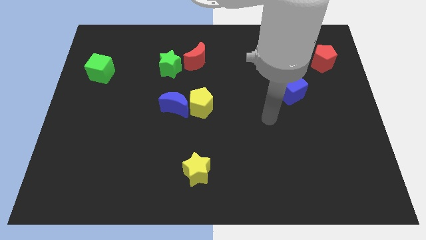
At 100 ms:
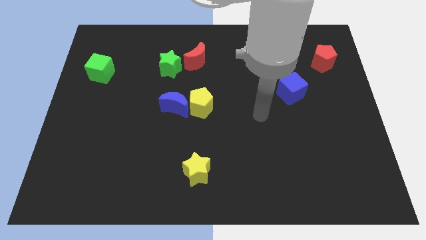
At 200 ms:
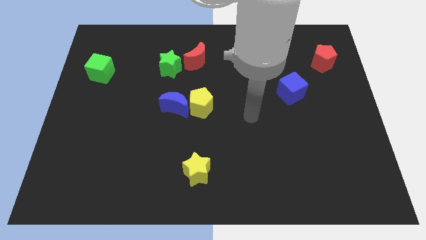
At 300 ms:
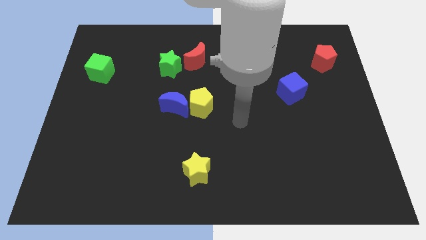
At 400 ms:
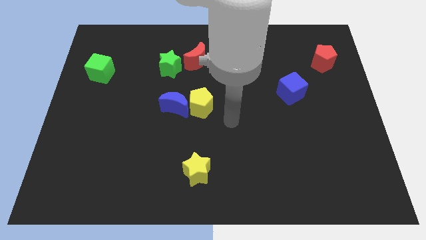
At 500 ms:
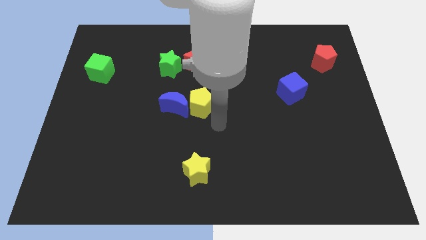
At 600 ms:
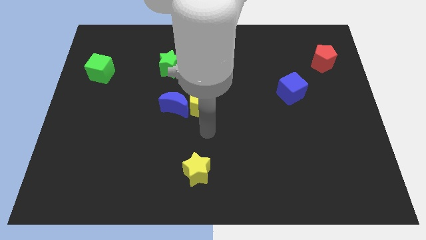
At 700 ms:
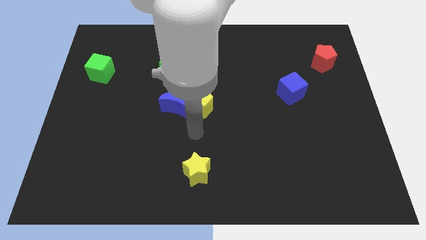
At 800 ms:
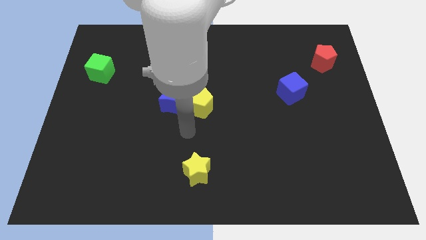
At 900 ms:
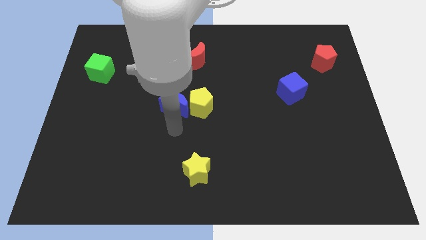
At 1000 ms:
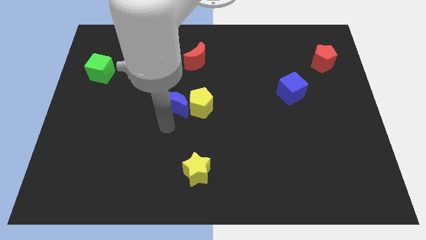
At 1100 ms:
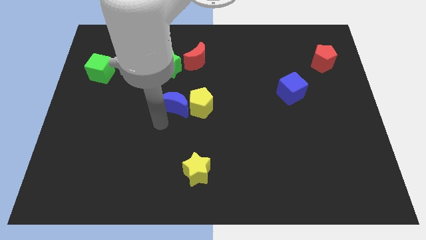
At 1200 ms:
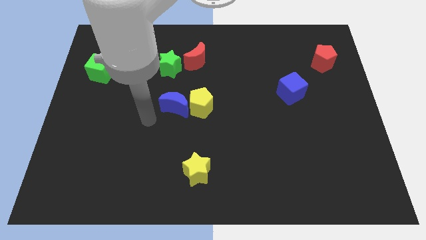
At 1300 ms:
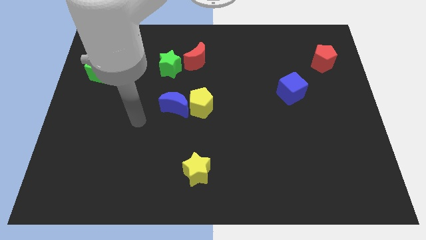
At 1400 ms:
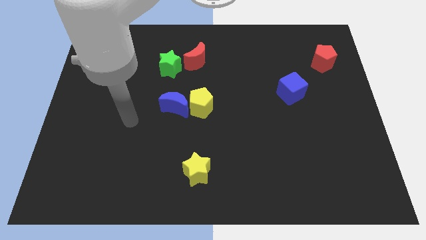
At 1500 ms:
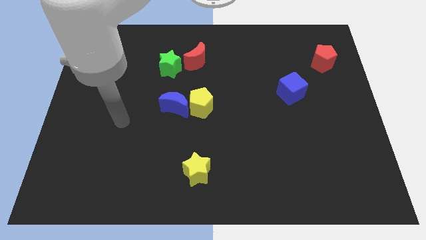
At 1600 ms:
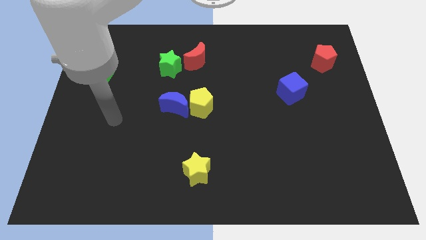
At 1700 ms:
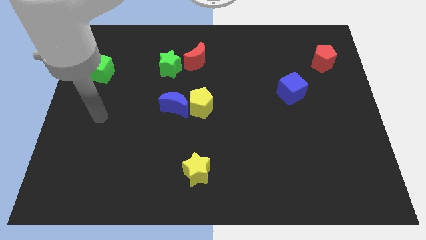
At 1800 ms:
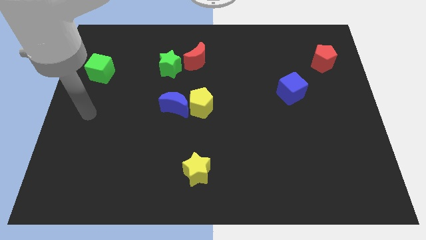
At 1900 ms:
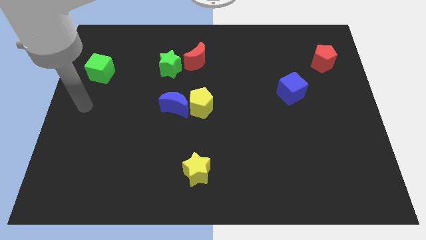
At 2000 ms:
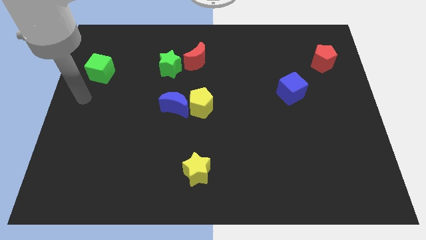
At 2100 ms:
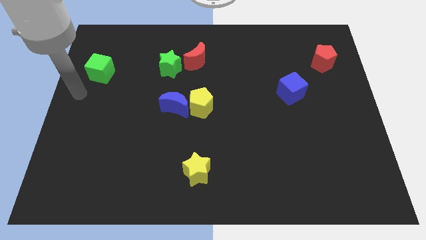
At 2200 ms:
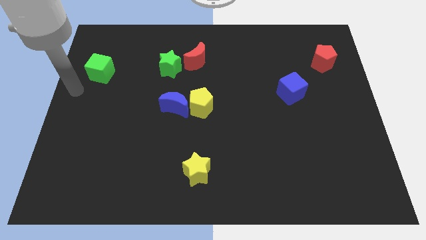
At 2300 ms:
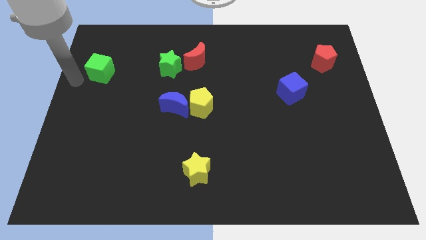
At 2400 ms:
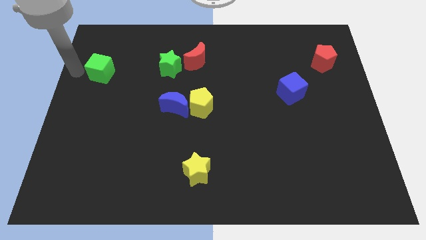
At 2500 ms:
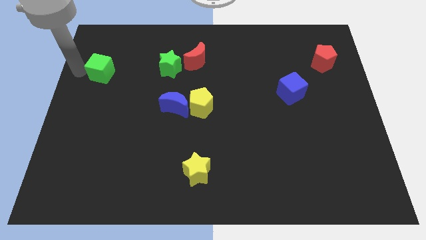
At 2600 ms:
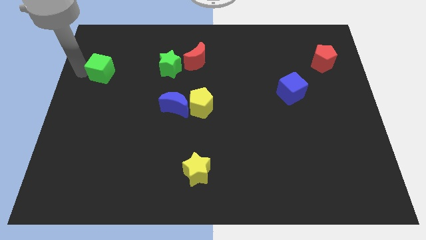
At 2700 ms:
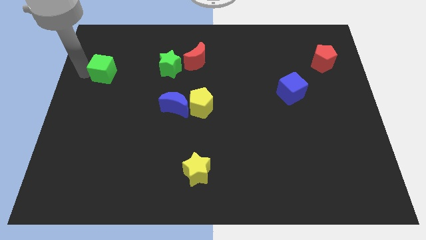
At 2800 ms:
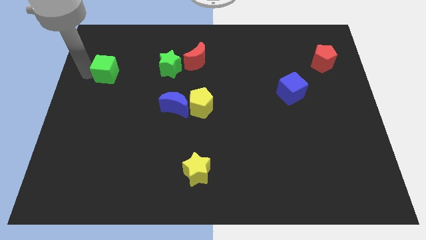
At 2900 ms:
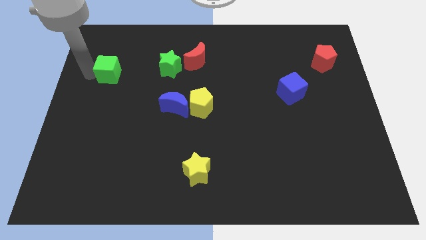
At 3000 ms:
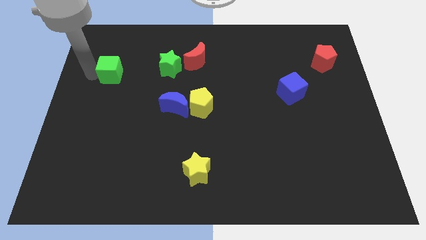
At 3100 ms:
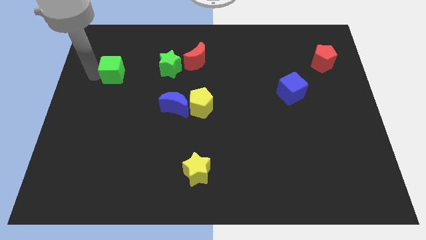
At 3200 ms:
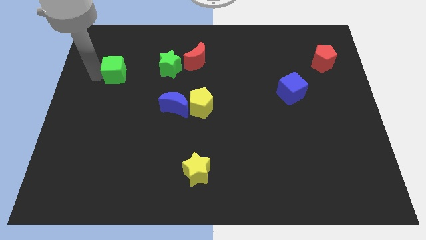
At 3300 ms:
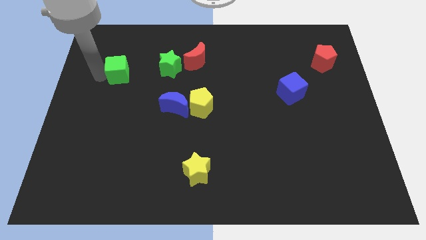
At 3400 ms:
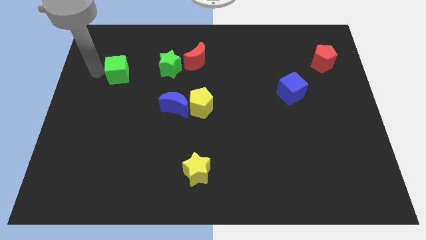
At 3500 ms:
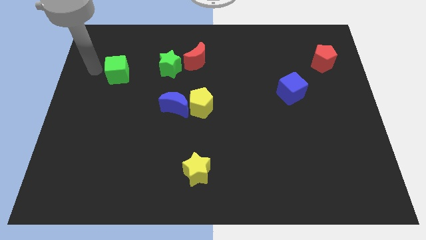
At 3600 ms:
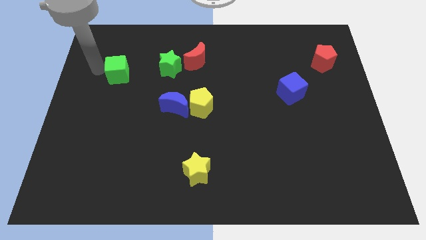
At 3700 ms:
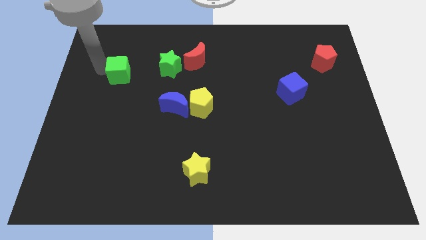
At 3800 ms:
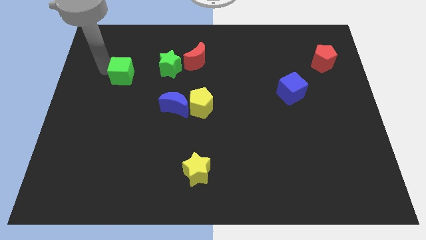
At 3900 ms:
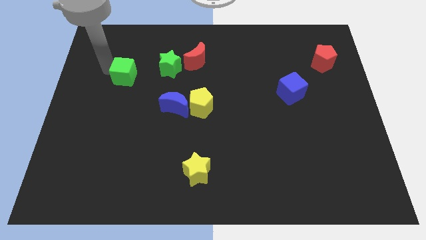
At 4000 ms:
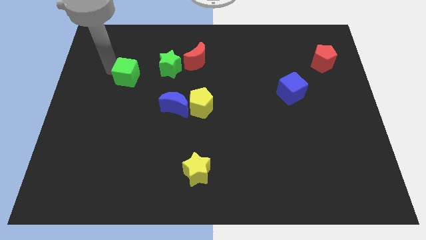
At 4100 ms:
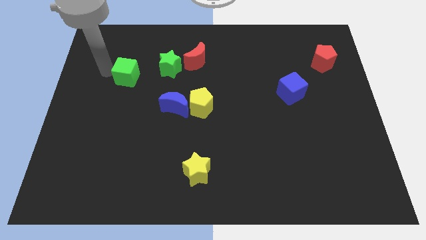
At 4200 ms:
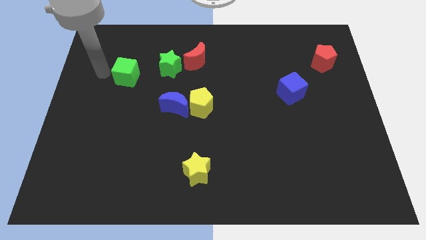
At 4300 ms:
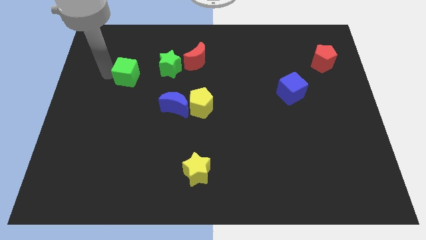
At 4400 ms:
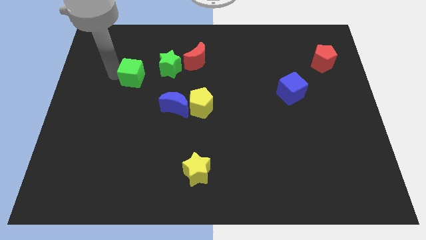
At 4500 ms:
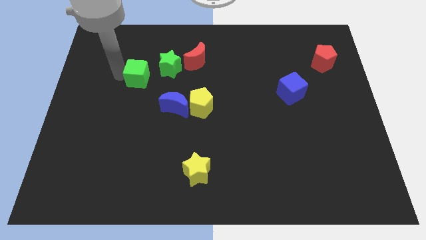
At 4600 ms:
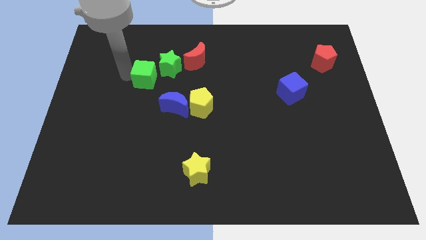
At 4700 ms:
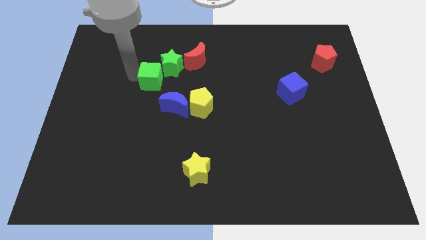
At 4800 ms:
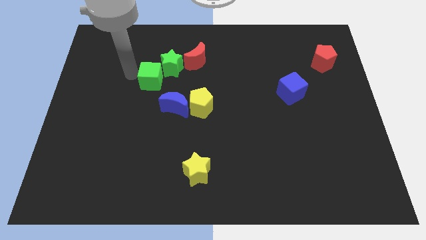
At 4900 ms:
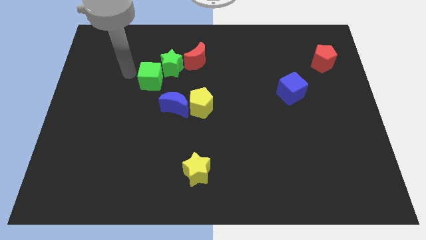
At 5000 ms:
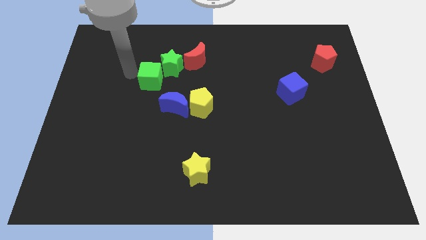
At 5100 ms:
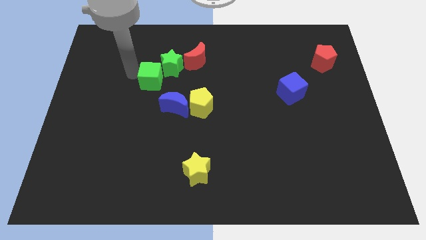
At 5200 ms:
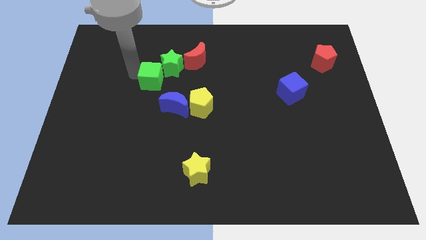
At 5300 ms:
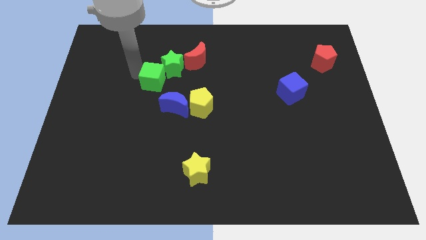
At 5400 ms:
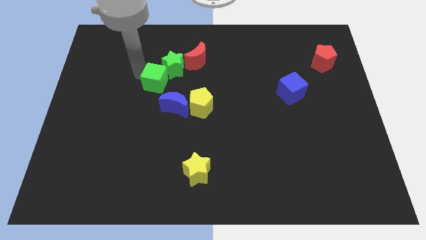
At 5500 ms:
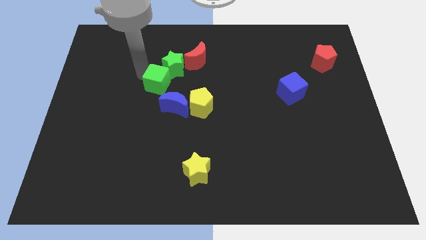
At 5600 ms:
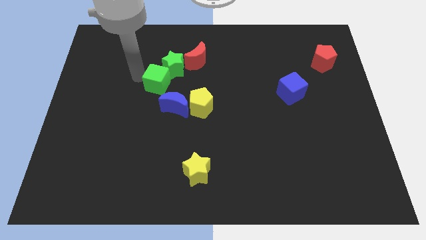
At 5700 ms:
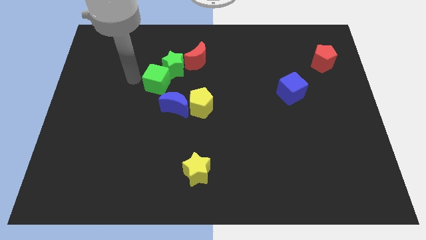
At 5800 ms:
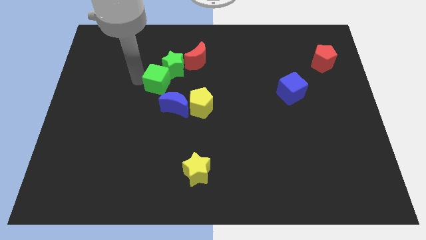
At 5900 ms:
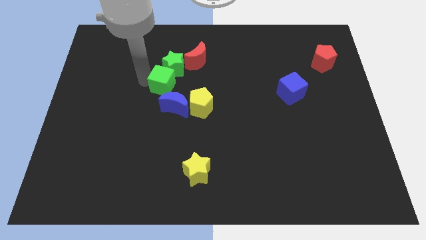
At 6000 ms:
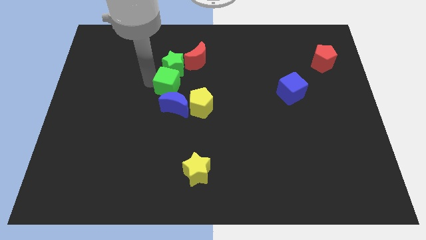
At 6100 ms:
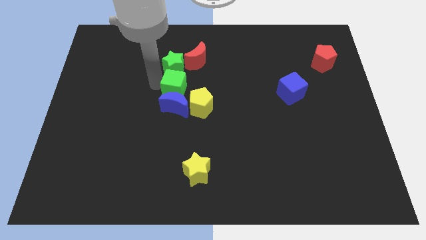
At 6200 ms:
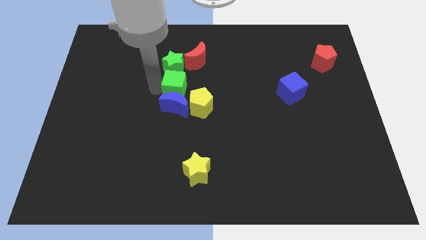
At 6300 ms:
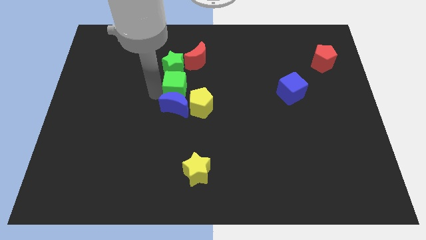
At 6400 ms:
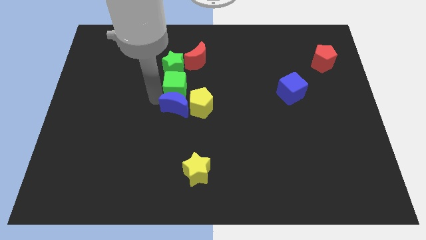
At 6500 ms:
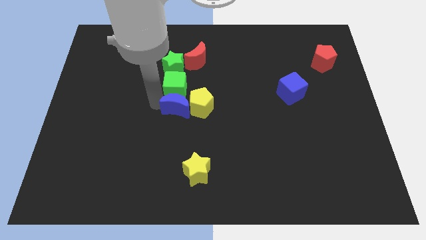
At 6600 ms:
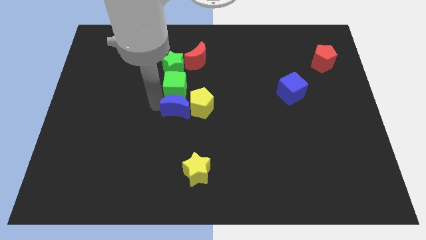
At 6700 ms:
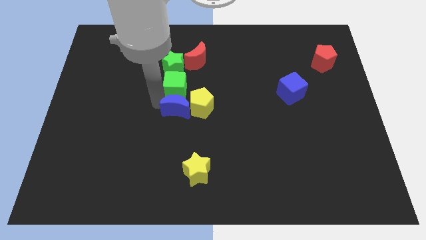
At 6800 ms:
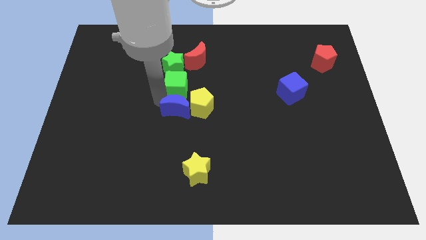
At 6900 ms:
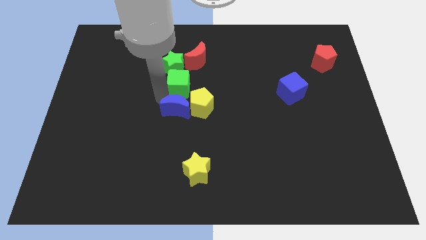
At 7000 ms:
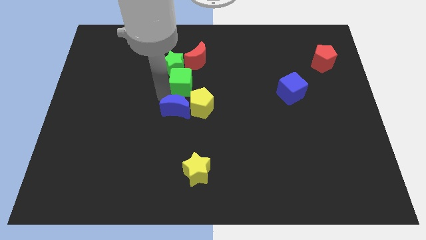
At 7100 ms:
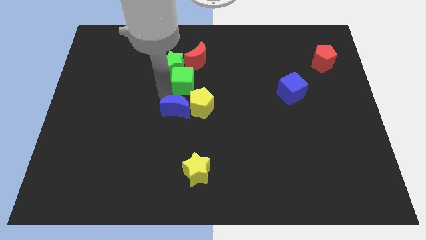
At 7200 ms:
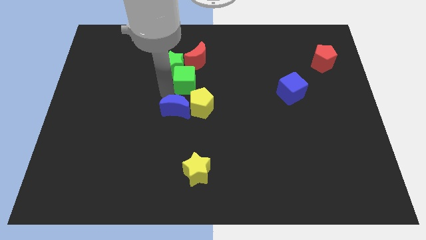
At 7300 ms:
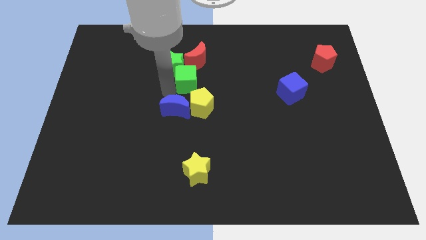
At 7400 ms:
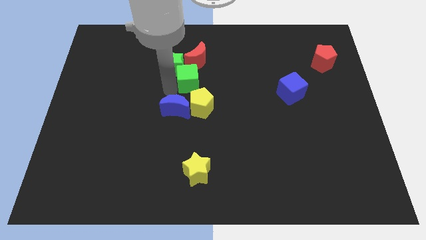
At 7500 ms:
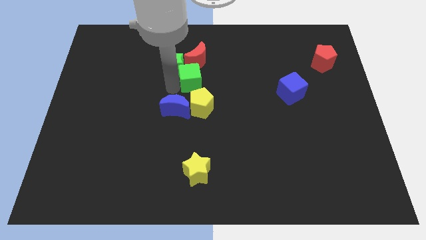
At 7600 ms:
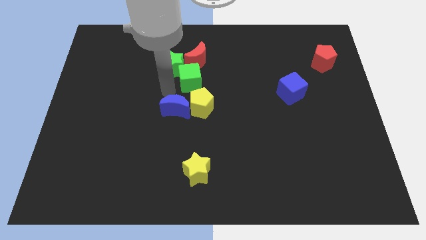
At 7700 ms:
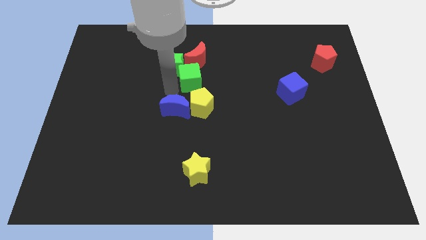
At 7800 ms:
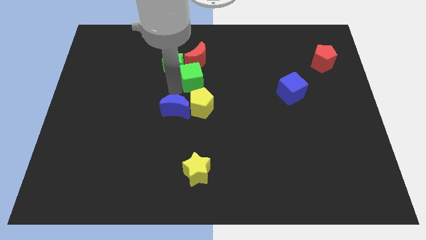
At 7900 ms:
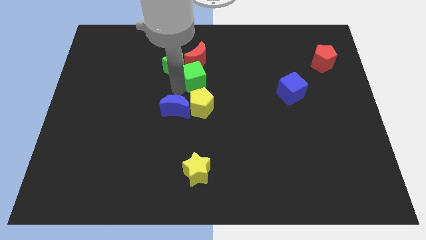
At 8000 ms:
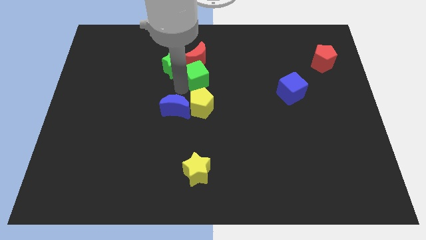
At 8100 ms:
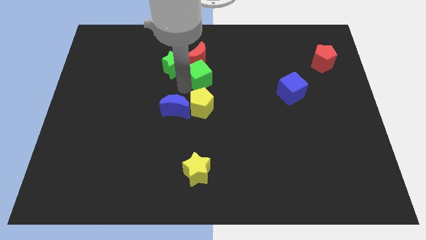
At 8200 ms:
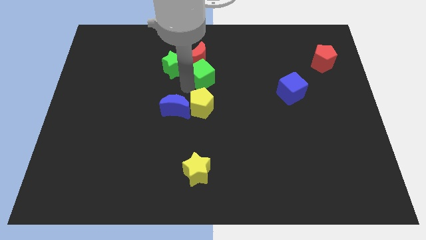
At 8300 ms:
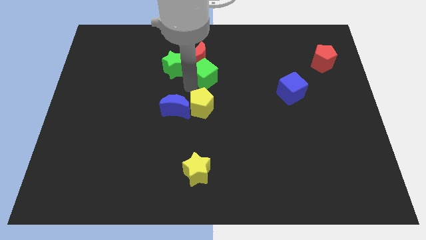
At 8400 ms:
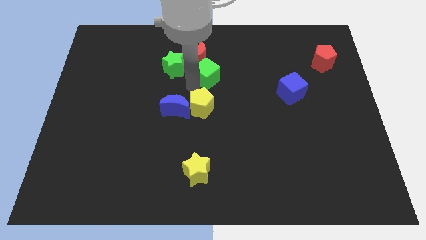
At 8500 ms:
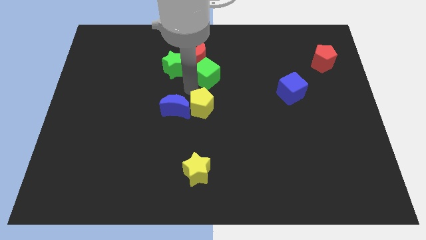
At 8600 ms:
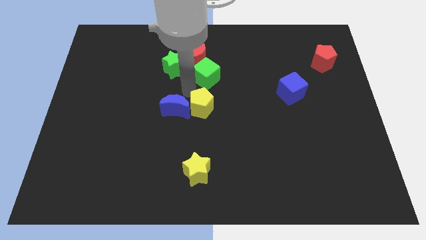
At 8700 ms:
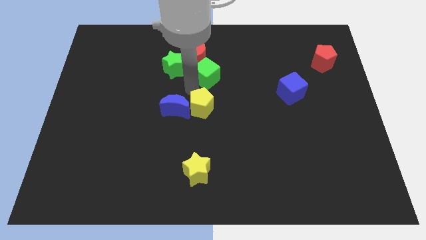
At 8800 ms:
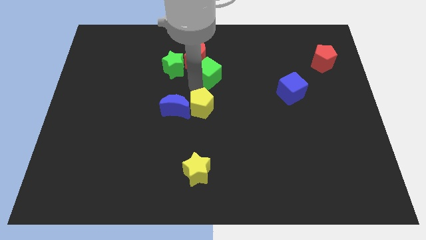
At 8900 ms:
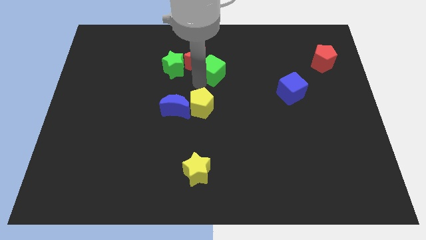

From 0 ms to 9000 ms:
push the green cube right of the red moon
